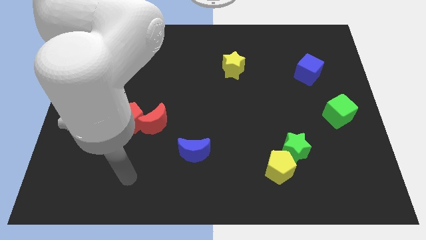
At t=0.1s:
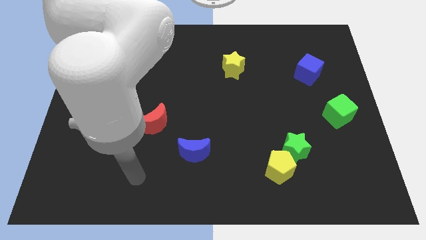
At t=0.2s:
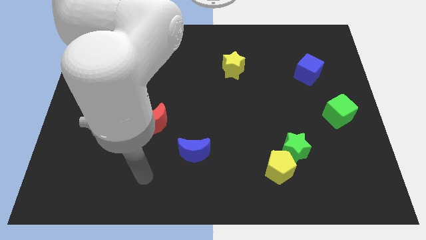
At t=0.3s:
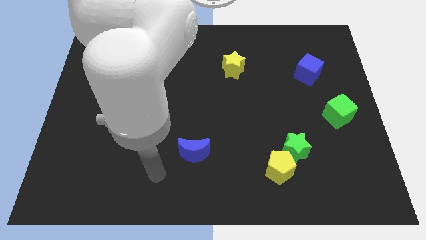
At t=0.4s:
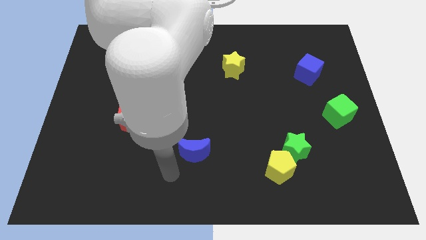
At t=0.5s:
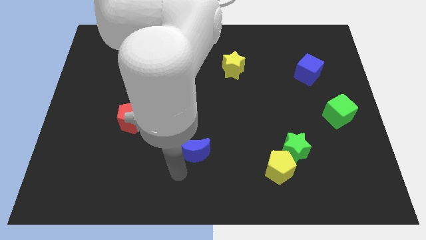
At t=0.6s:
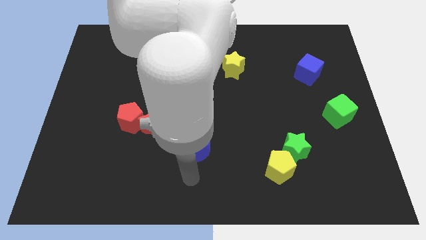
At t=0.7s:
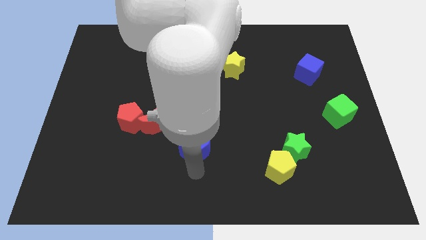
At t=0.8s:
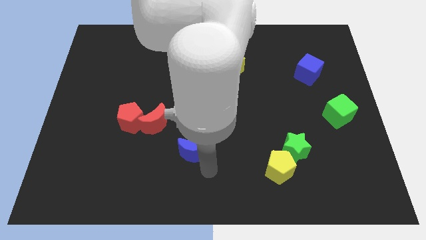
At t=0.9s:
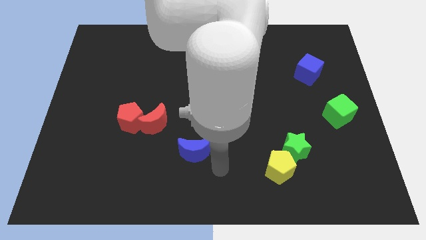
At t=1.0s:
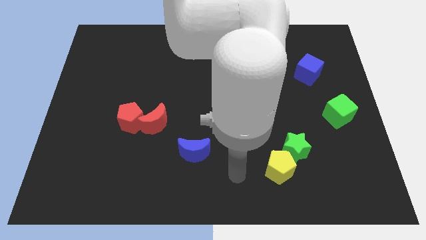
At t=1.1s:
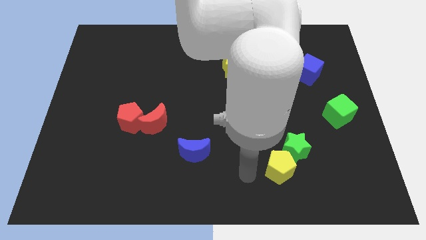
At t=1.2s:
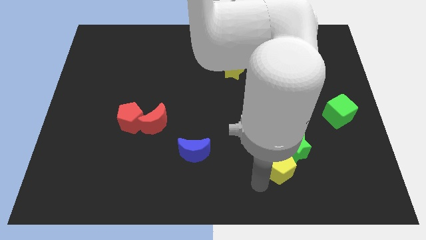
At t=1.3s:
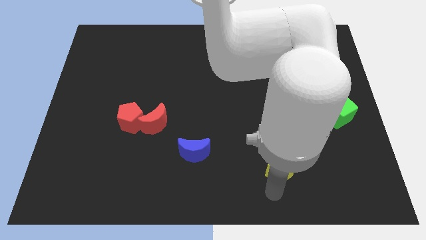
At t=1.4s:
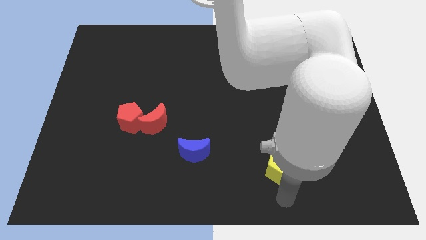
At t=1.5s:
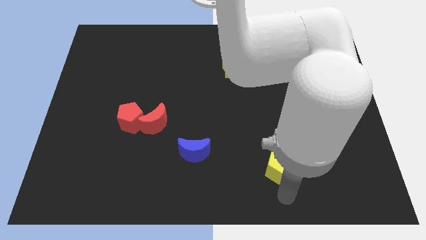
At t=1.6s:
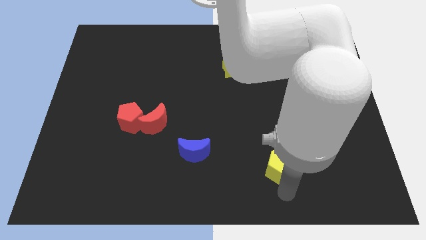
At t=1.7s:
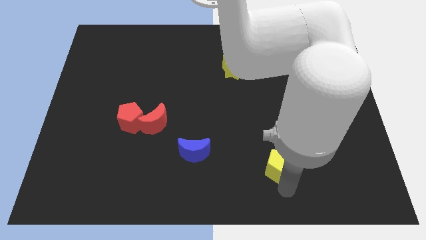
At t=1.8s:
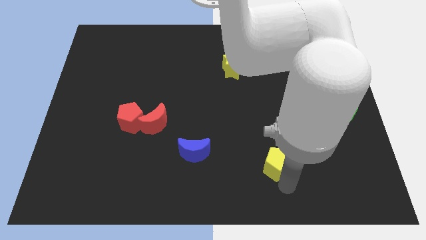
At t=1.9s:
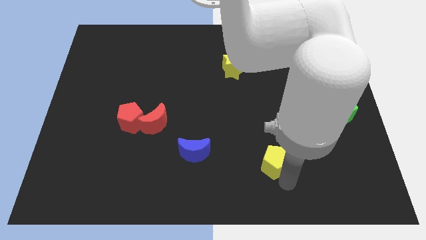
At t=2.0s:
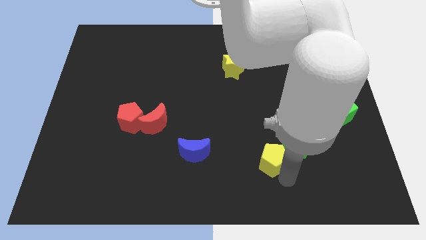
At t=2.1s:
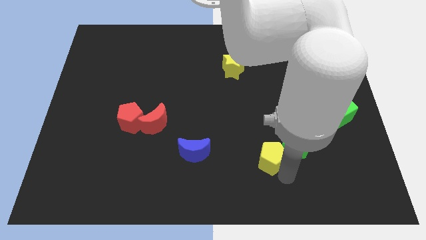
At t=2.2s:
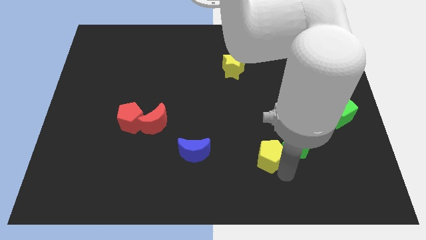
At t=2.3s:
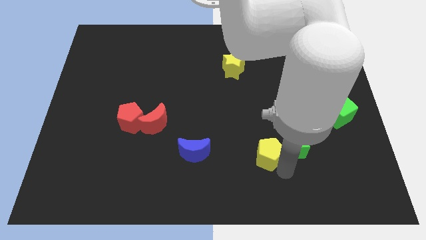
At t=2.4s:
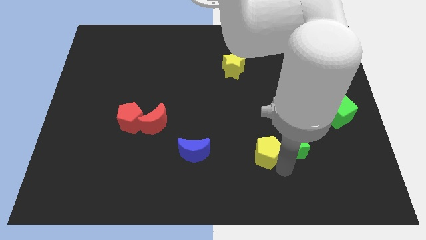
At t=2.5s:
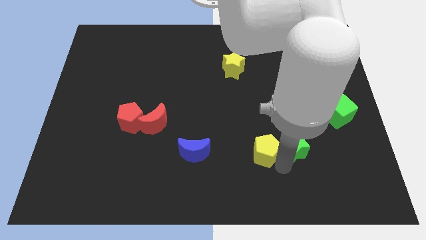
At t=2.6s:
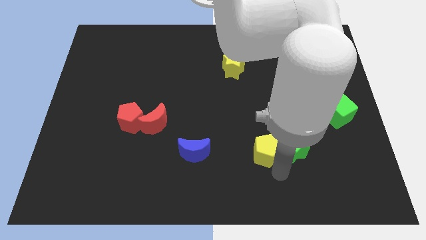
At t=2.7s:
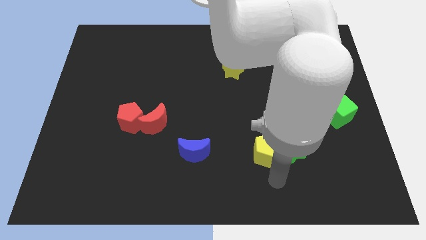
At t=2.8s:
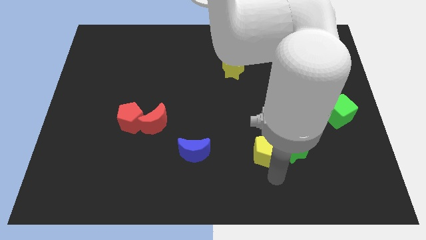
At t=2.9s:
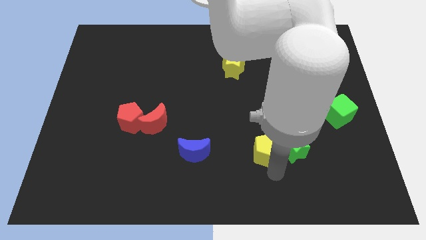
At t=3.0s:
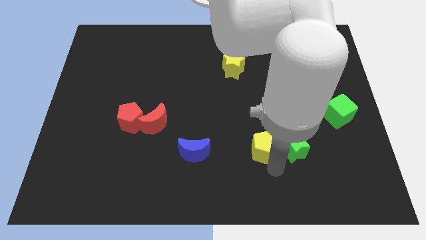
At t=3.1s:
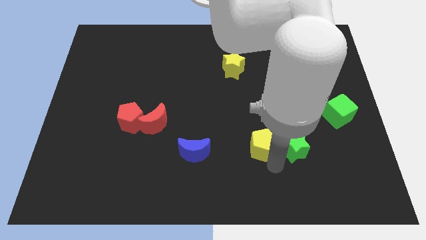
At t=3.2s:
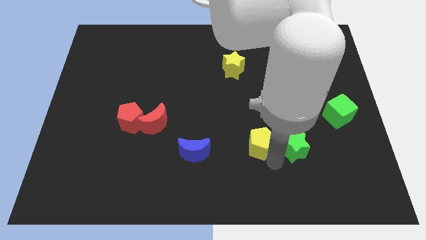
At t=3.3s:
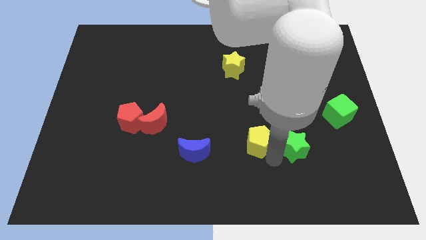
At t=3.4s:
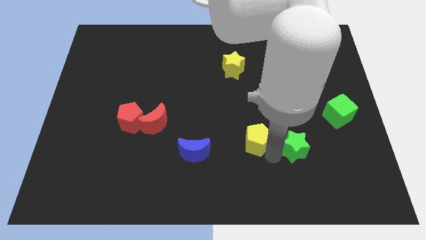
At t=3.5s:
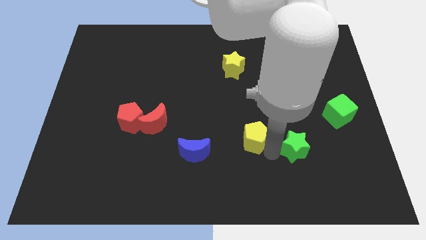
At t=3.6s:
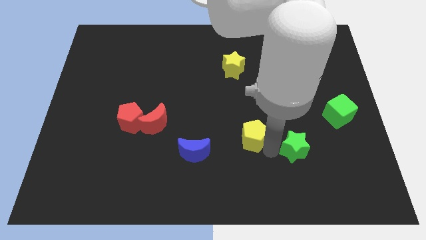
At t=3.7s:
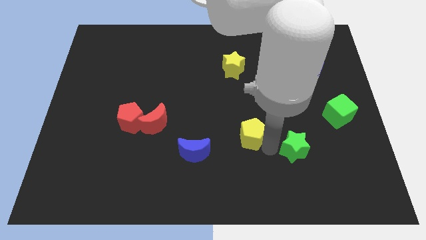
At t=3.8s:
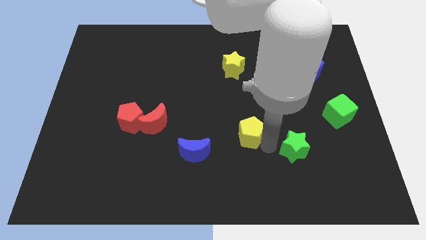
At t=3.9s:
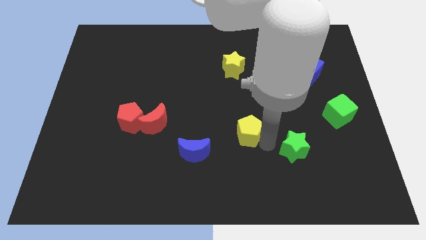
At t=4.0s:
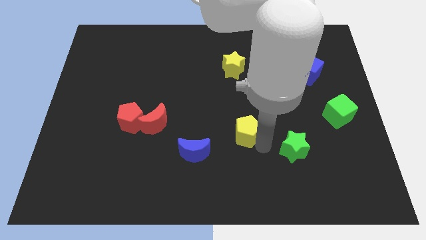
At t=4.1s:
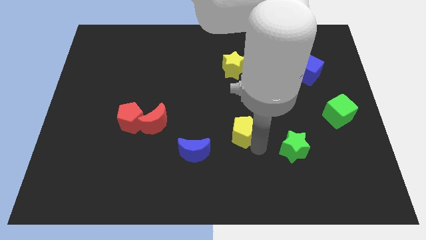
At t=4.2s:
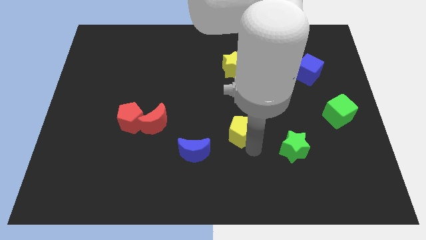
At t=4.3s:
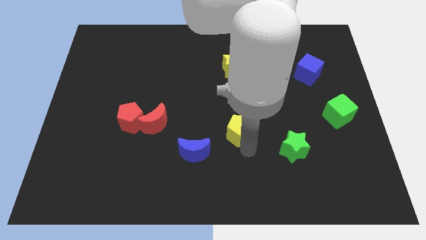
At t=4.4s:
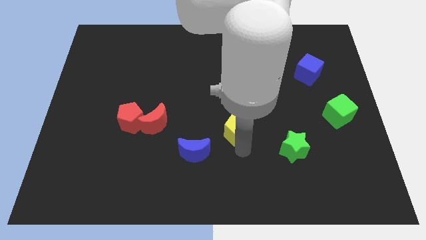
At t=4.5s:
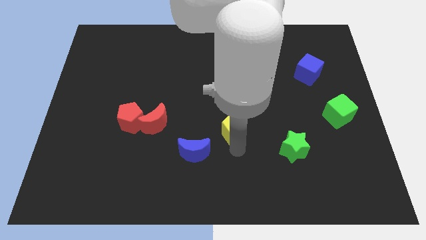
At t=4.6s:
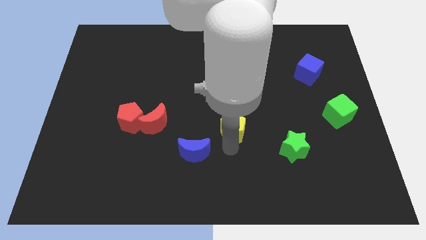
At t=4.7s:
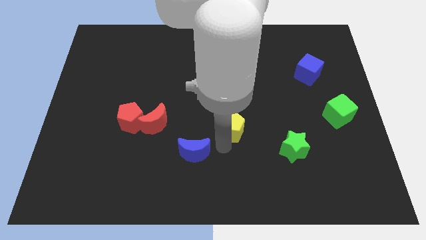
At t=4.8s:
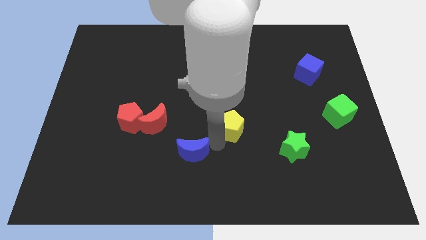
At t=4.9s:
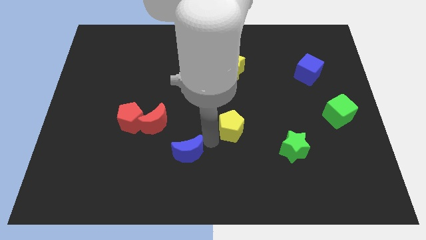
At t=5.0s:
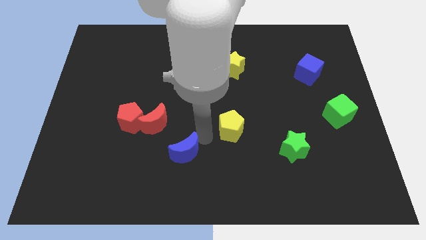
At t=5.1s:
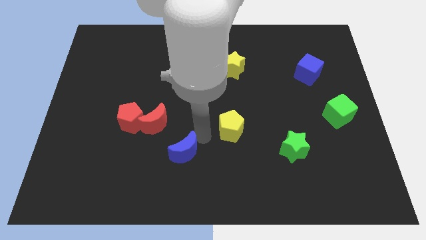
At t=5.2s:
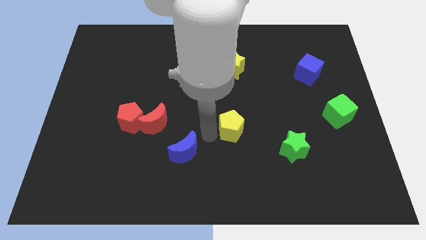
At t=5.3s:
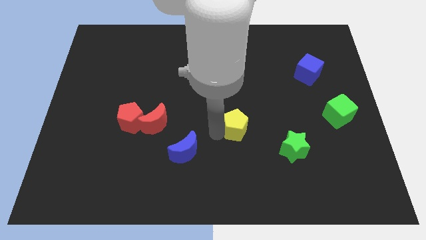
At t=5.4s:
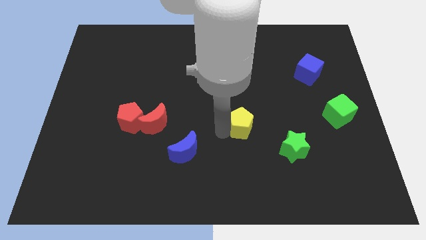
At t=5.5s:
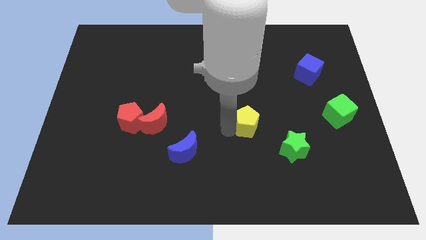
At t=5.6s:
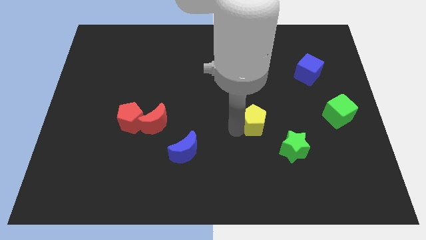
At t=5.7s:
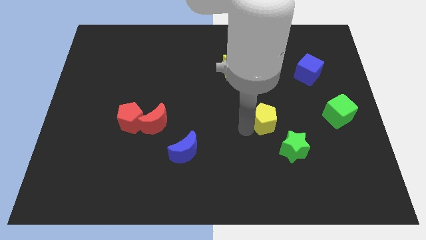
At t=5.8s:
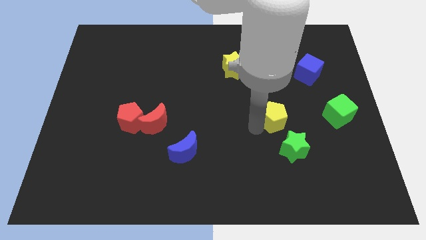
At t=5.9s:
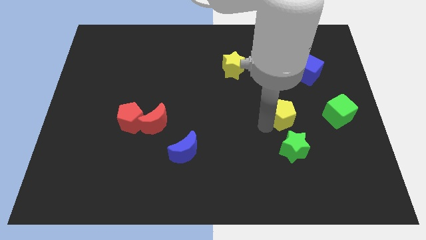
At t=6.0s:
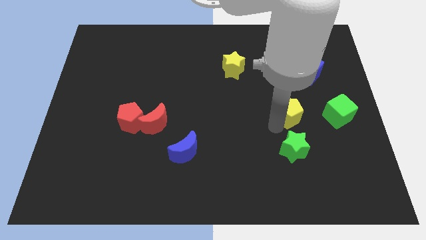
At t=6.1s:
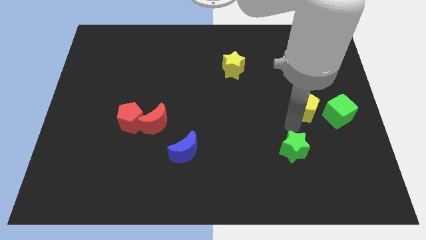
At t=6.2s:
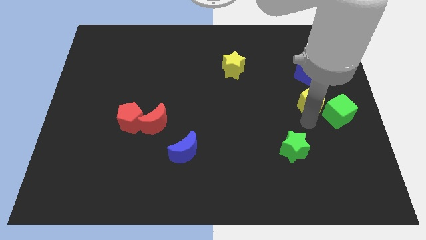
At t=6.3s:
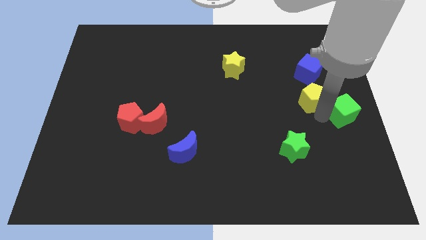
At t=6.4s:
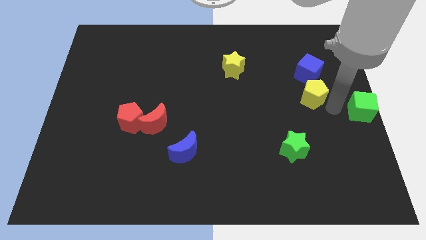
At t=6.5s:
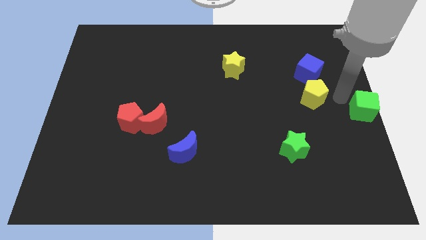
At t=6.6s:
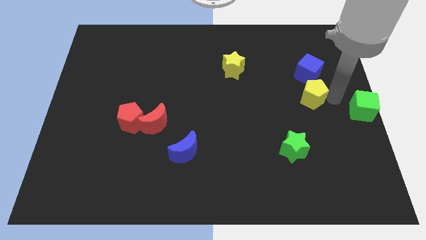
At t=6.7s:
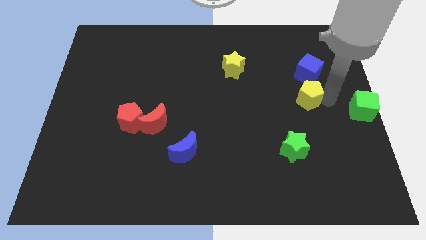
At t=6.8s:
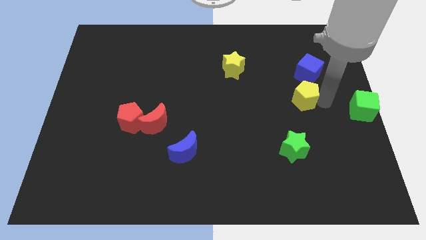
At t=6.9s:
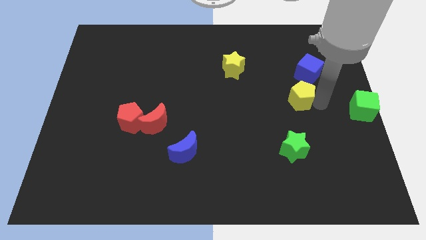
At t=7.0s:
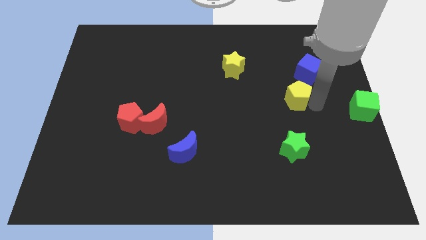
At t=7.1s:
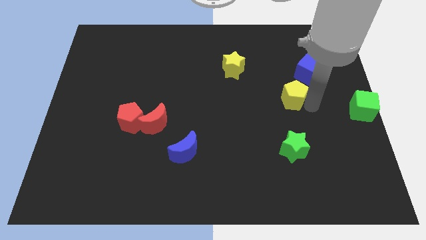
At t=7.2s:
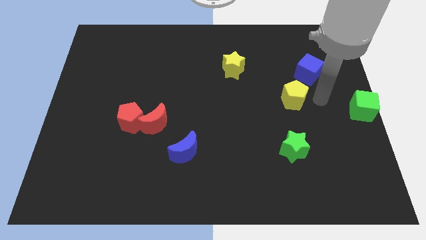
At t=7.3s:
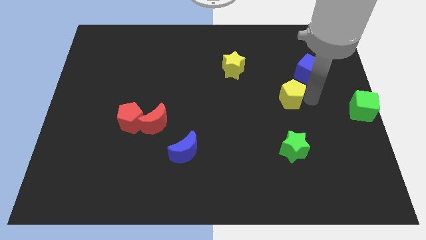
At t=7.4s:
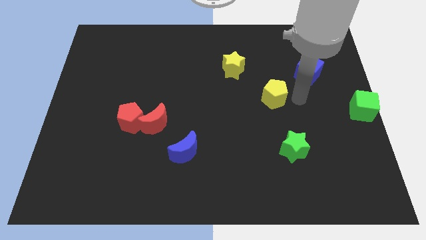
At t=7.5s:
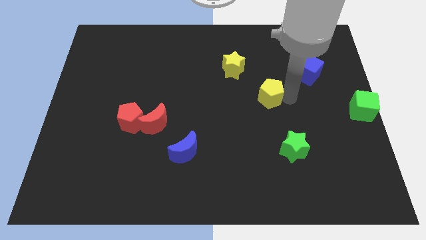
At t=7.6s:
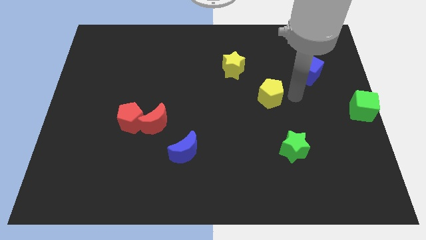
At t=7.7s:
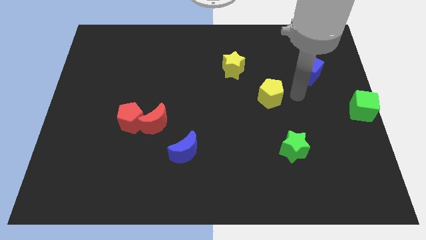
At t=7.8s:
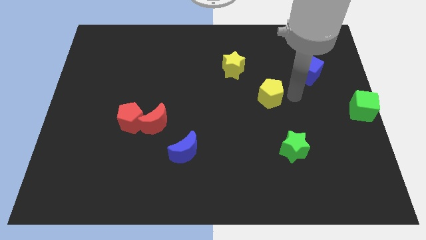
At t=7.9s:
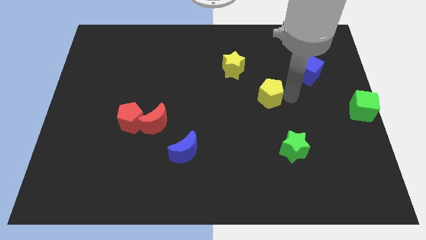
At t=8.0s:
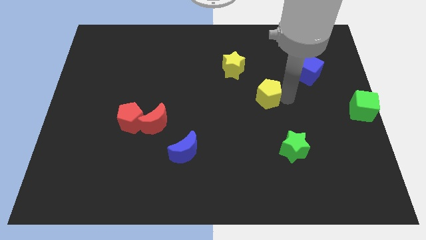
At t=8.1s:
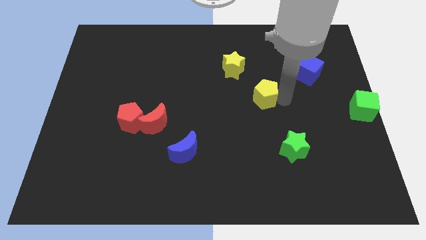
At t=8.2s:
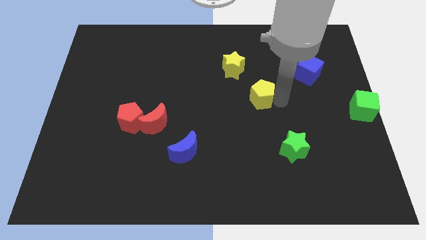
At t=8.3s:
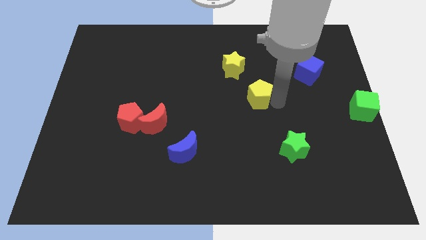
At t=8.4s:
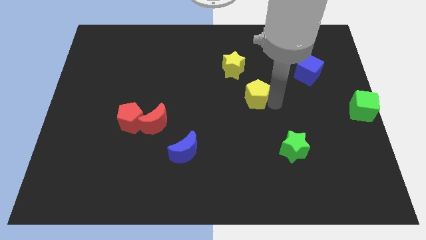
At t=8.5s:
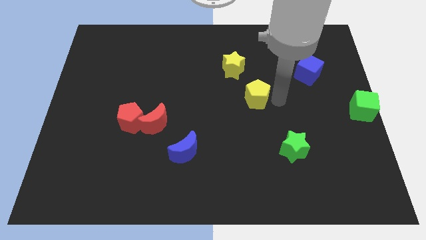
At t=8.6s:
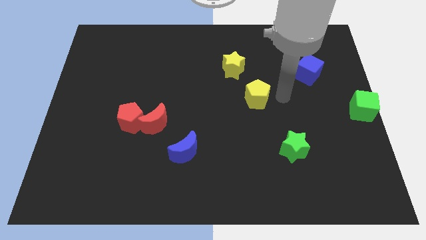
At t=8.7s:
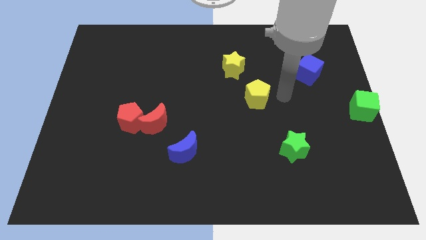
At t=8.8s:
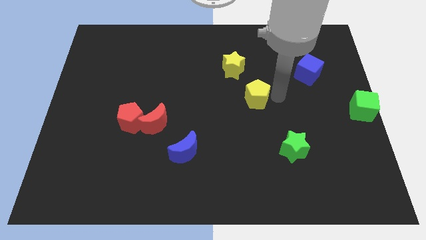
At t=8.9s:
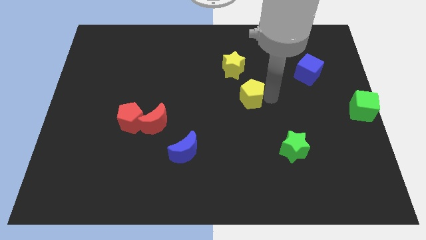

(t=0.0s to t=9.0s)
slide the yellow pentagon to the bottom of the yellow star
